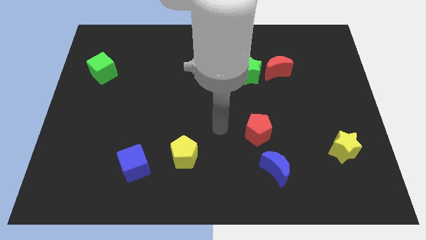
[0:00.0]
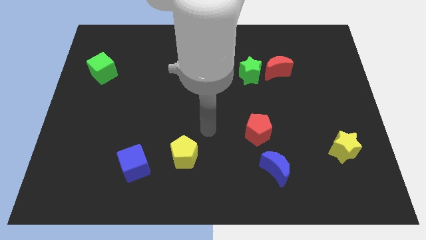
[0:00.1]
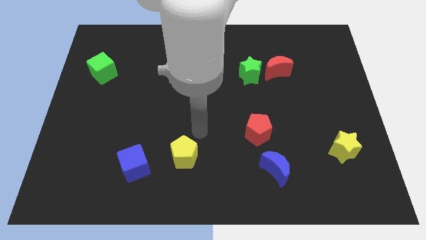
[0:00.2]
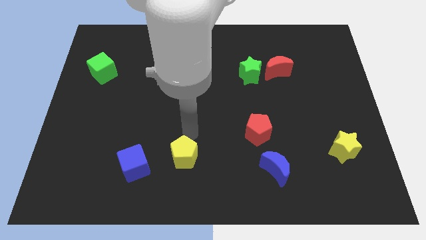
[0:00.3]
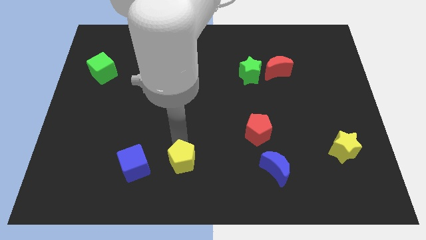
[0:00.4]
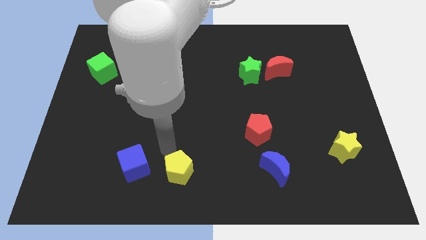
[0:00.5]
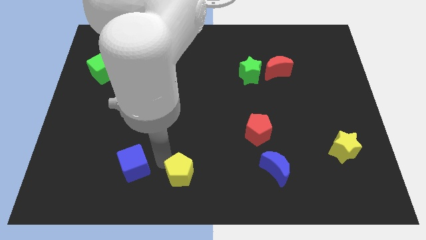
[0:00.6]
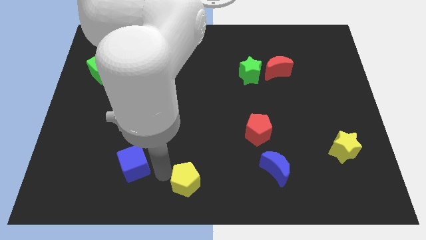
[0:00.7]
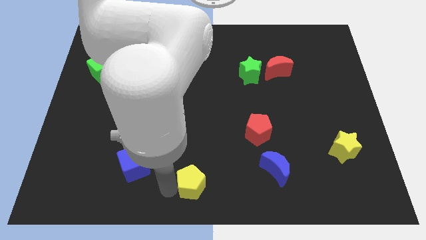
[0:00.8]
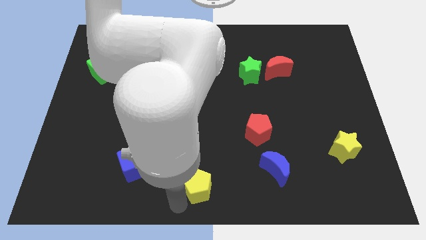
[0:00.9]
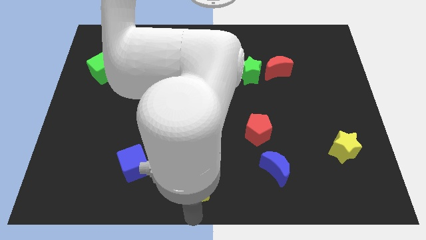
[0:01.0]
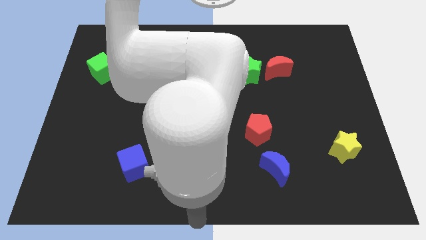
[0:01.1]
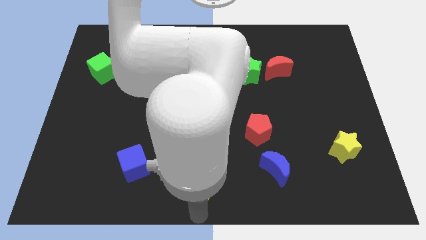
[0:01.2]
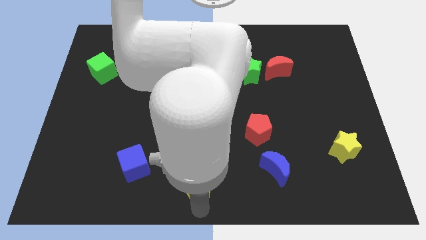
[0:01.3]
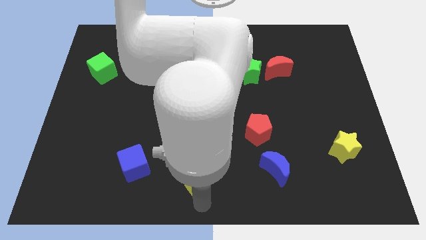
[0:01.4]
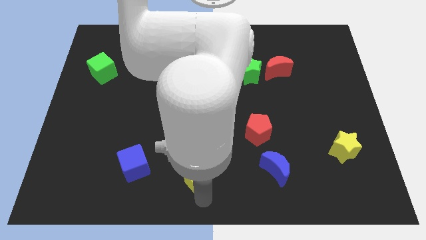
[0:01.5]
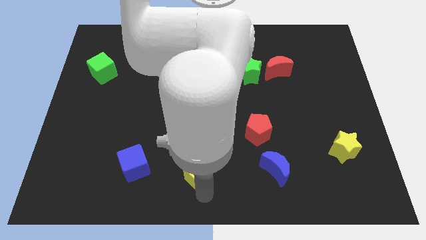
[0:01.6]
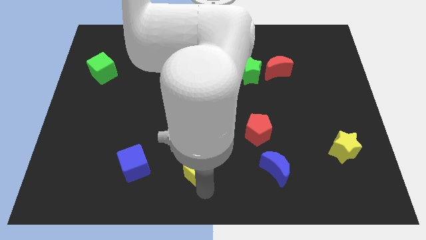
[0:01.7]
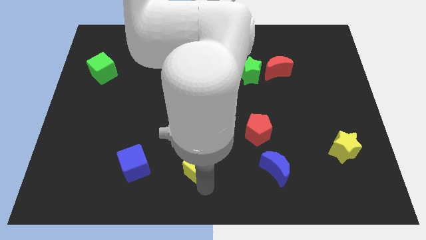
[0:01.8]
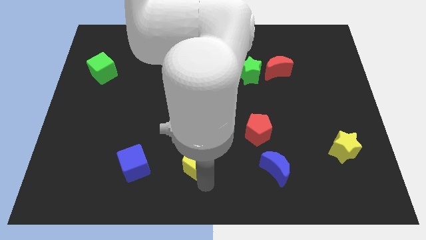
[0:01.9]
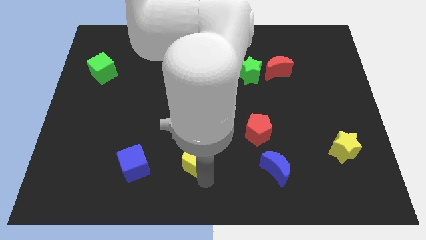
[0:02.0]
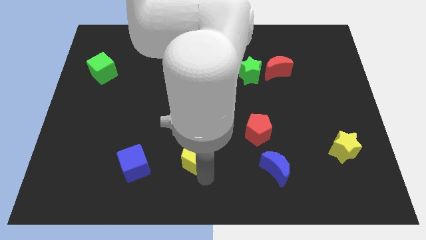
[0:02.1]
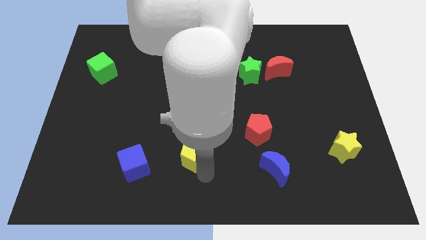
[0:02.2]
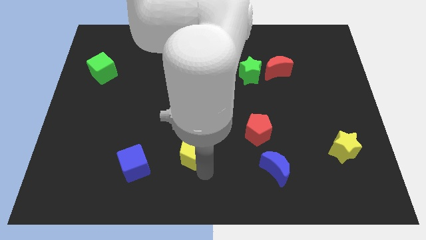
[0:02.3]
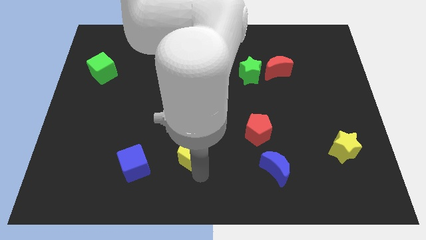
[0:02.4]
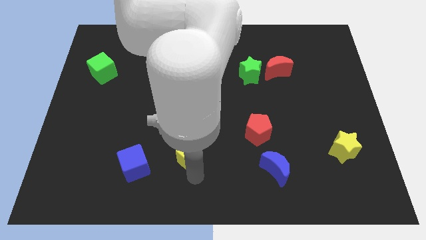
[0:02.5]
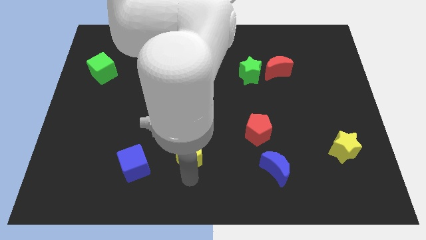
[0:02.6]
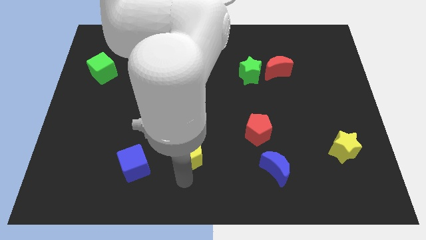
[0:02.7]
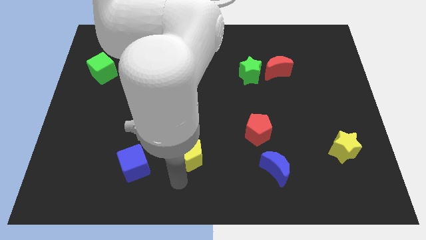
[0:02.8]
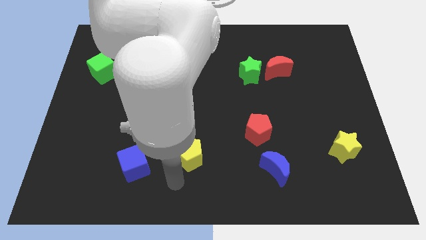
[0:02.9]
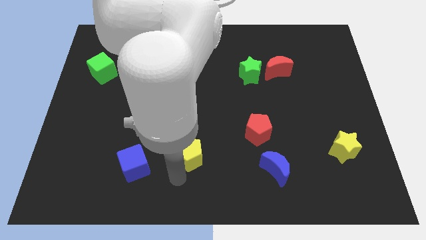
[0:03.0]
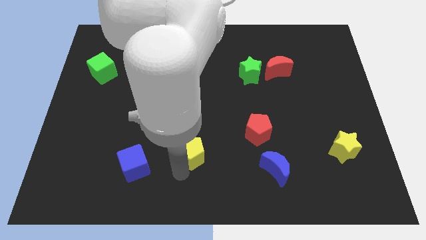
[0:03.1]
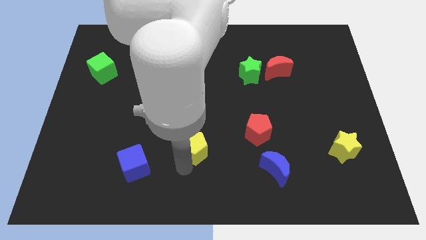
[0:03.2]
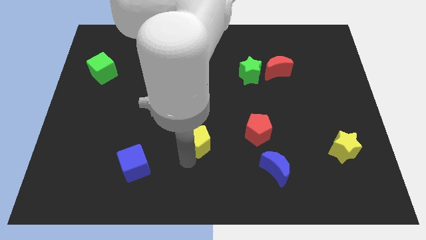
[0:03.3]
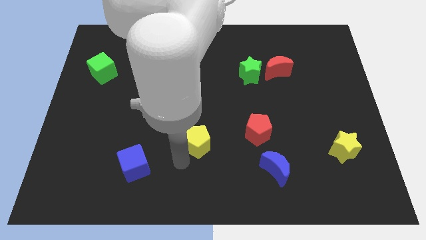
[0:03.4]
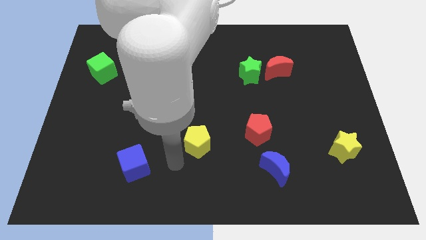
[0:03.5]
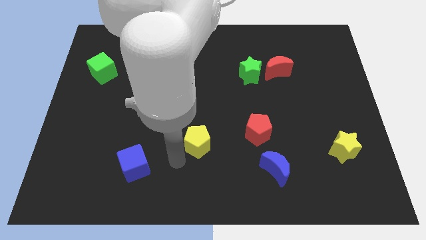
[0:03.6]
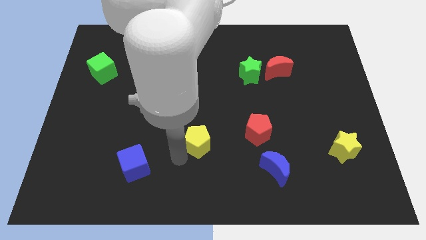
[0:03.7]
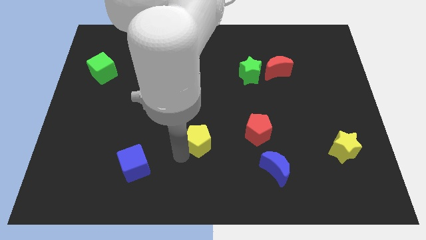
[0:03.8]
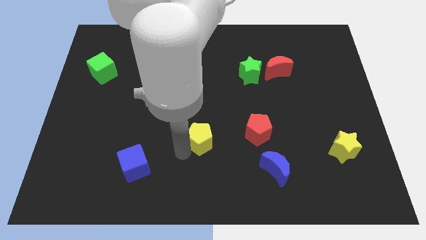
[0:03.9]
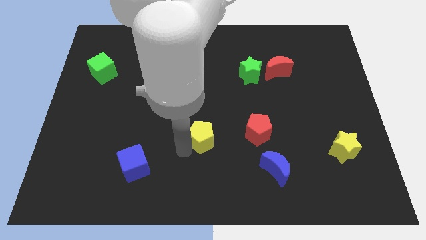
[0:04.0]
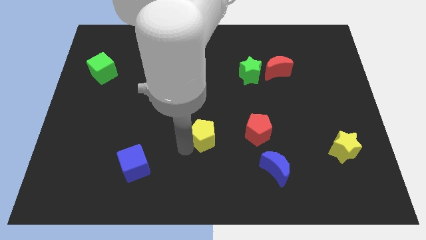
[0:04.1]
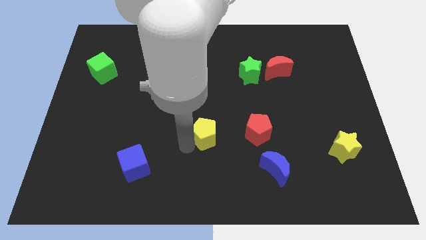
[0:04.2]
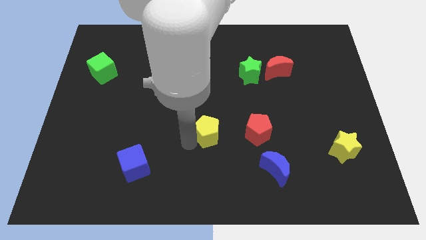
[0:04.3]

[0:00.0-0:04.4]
slightly push the yellow pentagon up and right

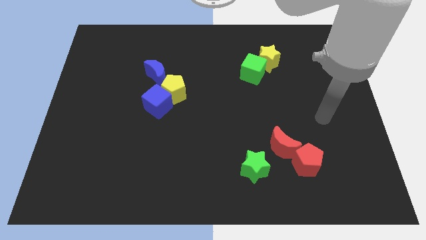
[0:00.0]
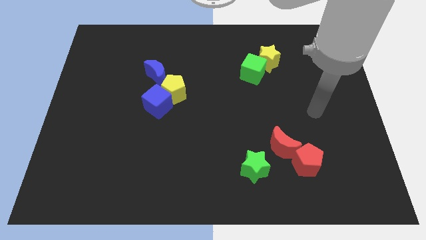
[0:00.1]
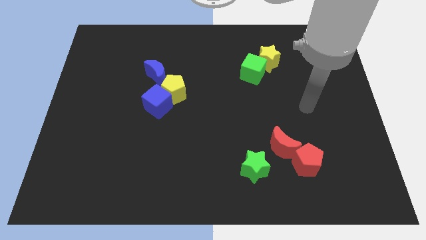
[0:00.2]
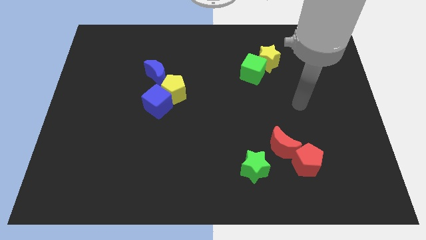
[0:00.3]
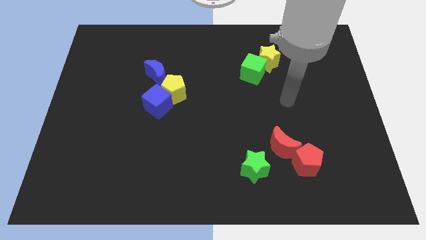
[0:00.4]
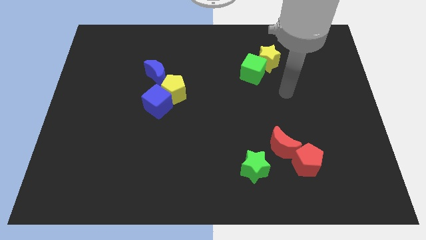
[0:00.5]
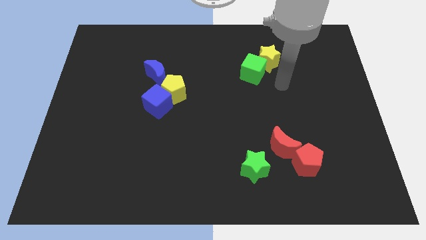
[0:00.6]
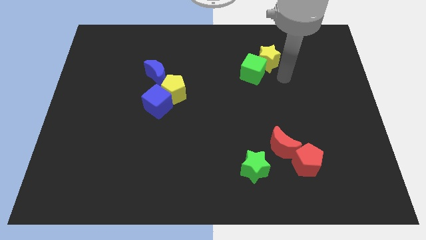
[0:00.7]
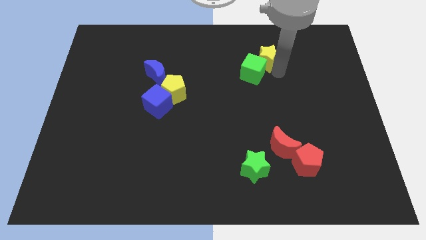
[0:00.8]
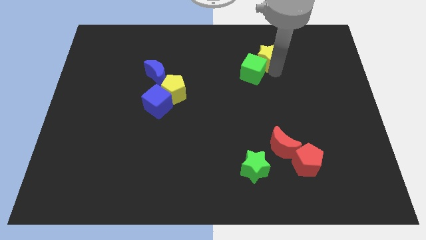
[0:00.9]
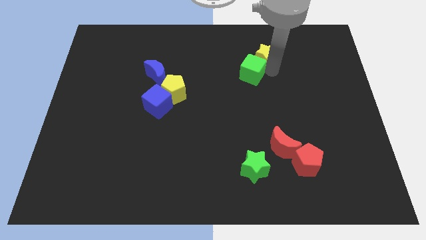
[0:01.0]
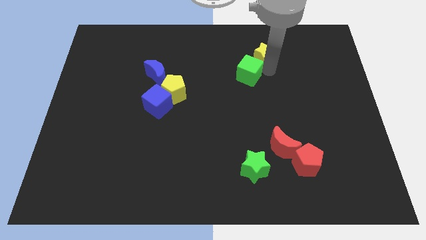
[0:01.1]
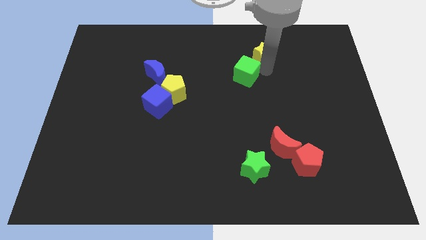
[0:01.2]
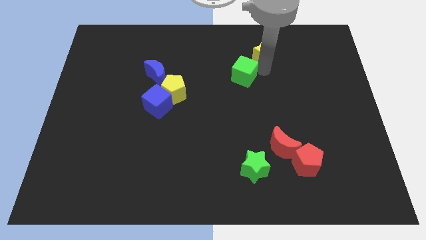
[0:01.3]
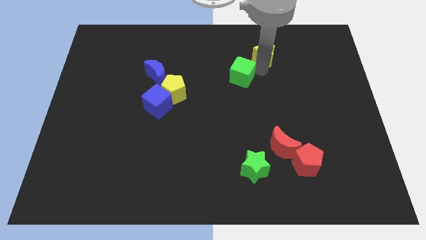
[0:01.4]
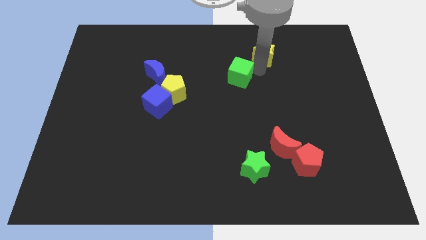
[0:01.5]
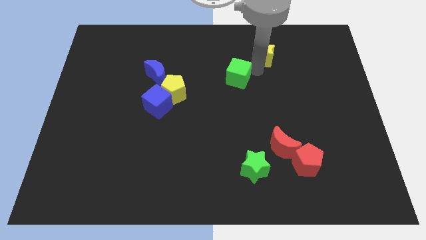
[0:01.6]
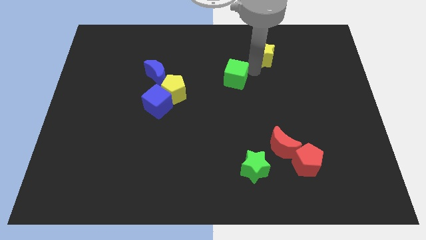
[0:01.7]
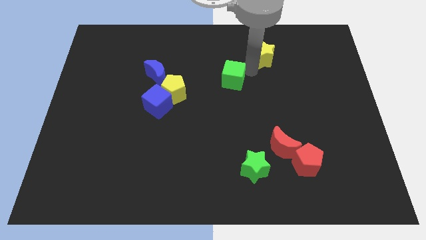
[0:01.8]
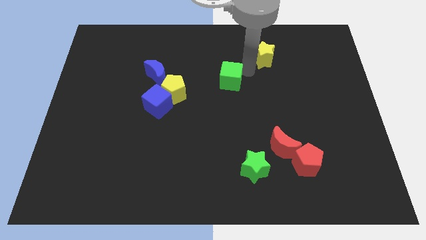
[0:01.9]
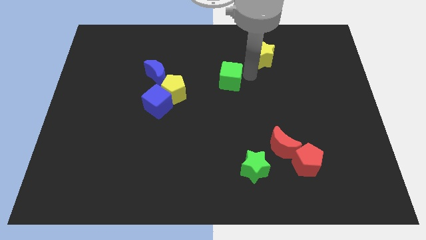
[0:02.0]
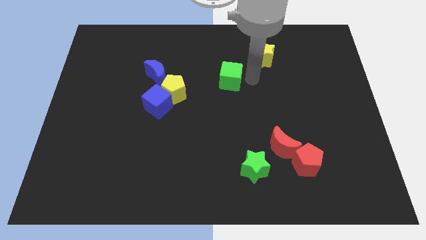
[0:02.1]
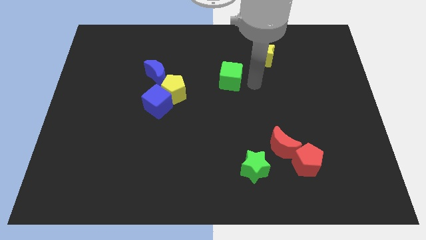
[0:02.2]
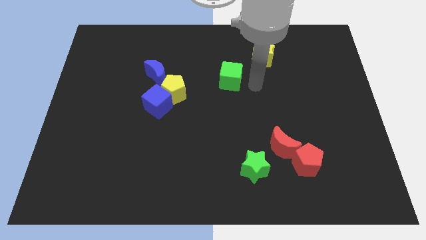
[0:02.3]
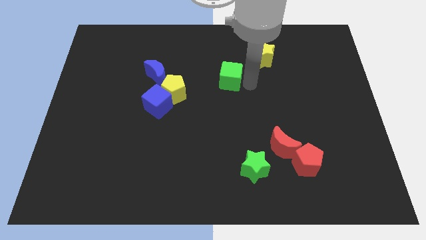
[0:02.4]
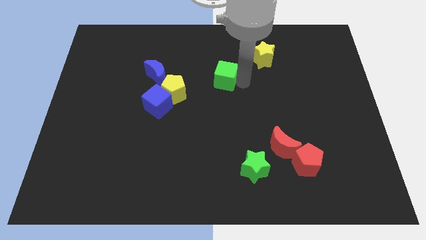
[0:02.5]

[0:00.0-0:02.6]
push the green cube a little bit left

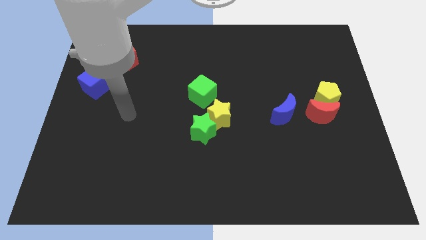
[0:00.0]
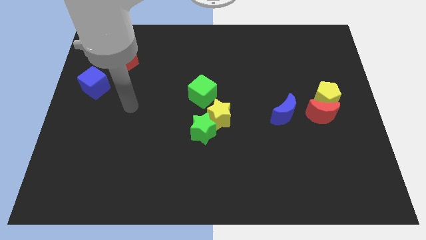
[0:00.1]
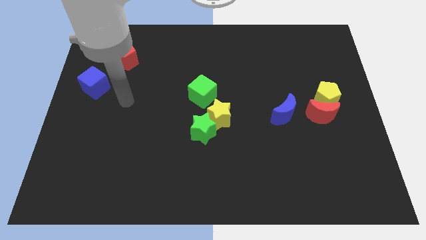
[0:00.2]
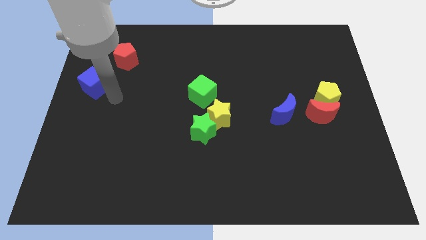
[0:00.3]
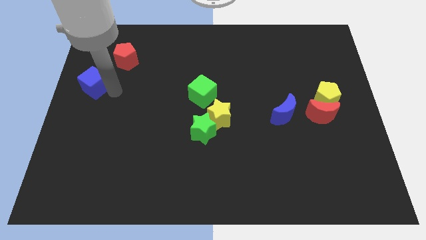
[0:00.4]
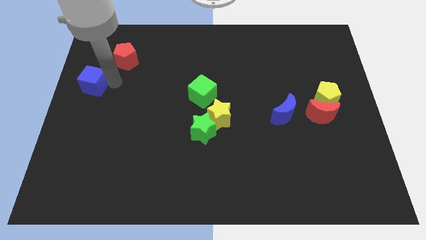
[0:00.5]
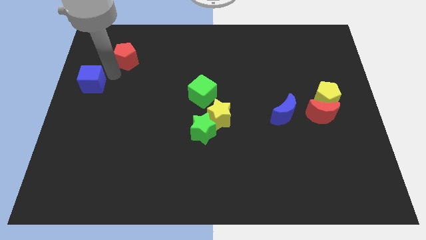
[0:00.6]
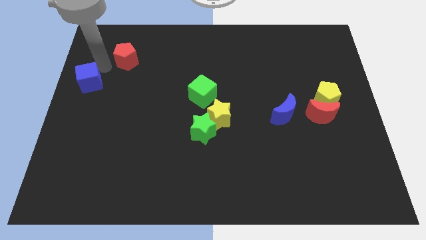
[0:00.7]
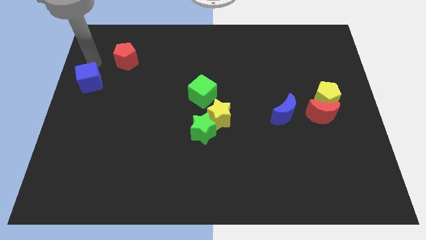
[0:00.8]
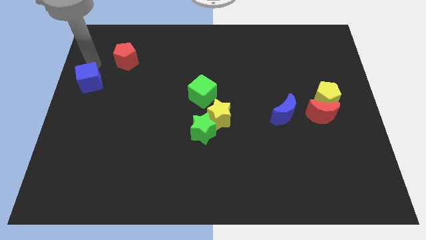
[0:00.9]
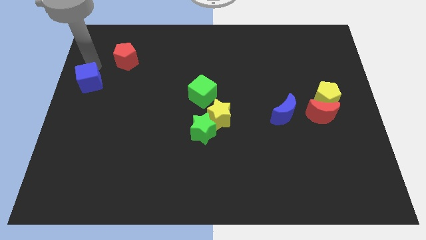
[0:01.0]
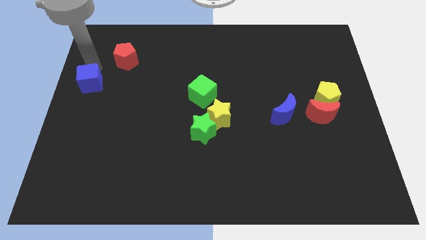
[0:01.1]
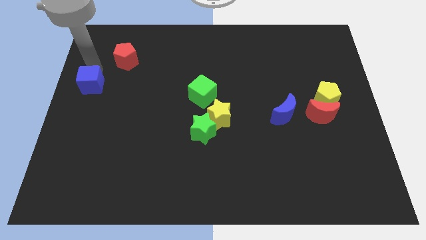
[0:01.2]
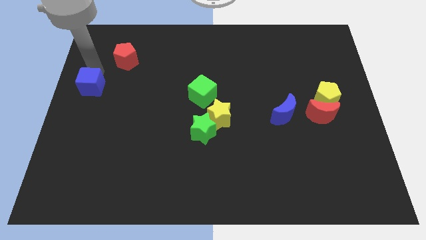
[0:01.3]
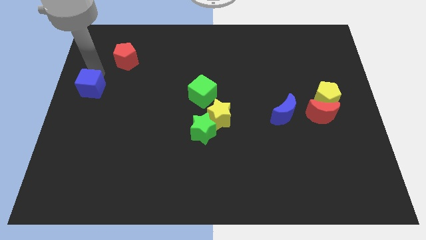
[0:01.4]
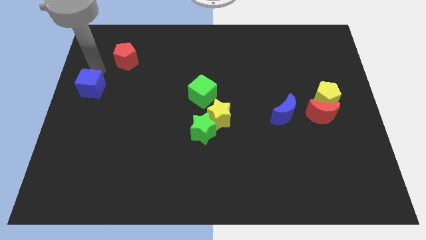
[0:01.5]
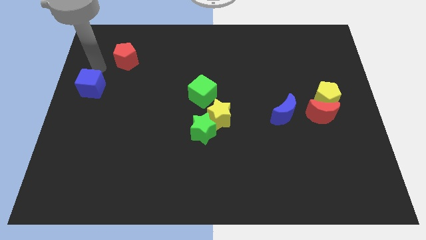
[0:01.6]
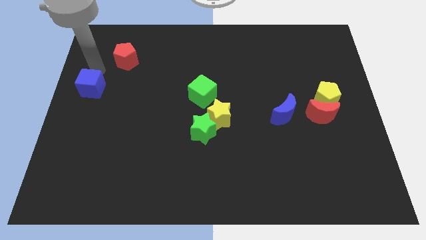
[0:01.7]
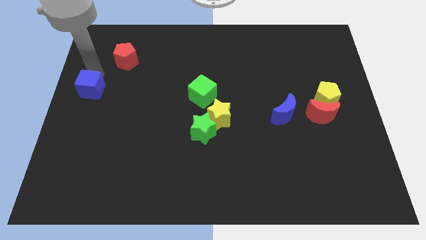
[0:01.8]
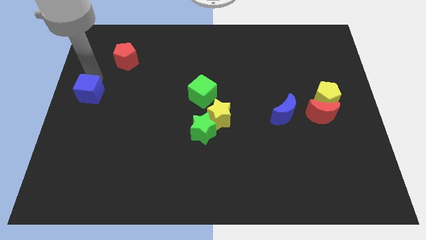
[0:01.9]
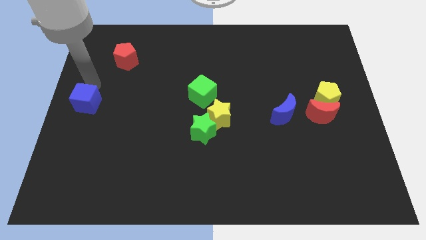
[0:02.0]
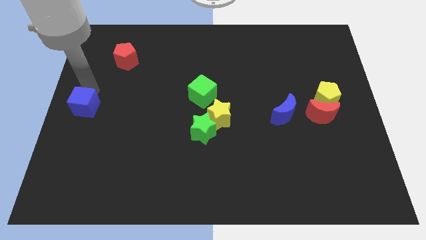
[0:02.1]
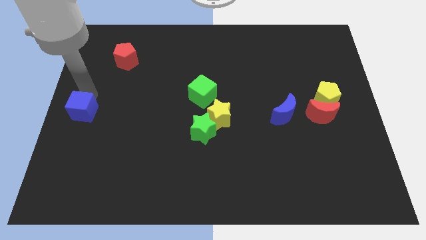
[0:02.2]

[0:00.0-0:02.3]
push the blue cube slightly downwards
